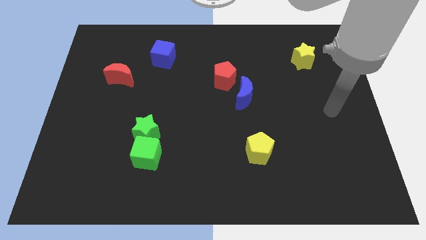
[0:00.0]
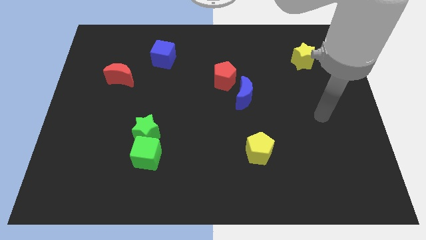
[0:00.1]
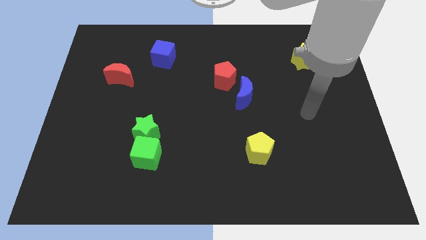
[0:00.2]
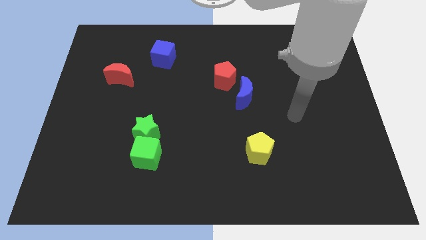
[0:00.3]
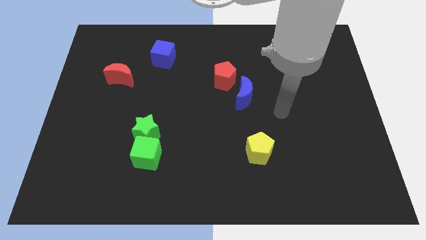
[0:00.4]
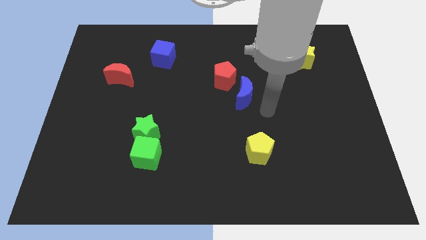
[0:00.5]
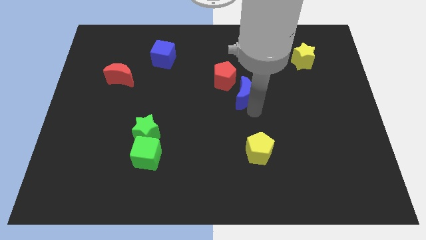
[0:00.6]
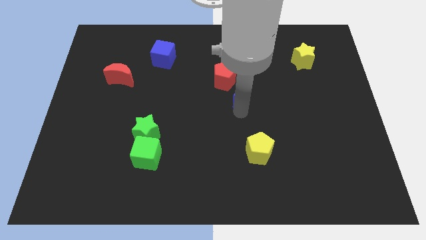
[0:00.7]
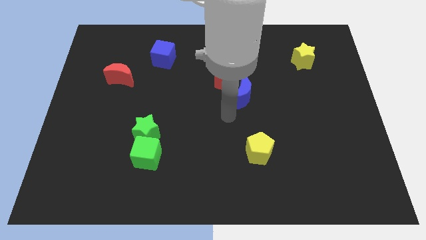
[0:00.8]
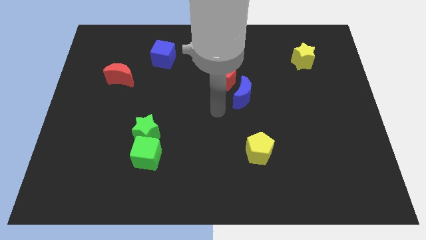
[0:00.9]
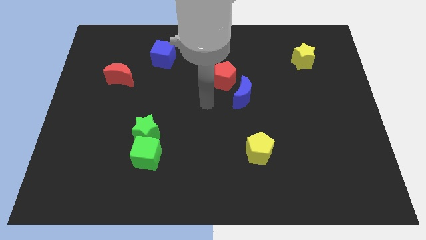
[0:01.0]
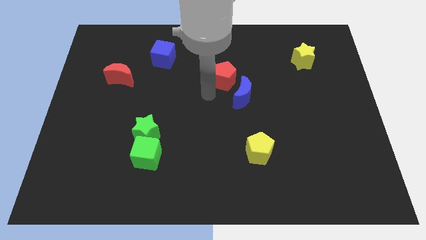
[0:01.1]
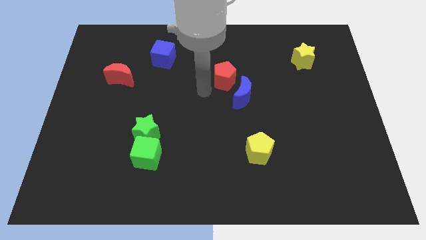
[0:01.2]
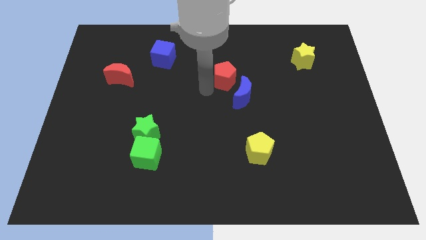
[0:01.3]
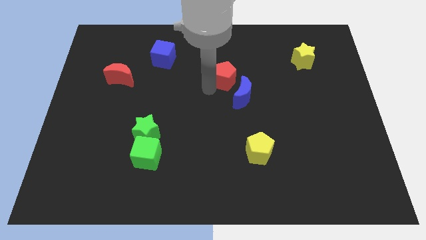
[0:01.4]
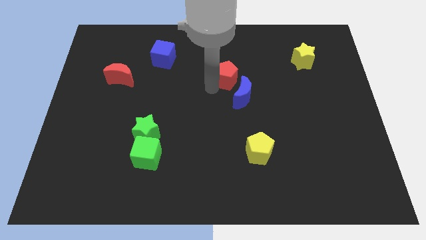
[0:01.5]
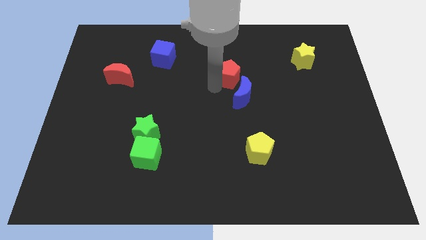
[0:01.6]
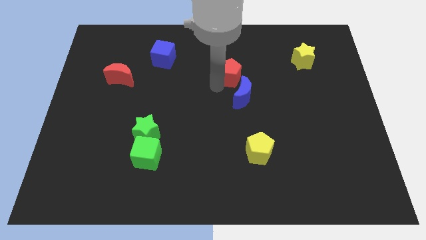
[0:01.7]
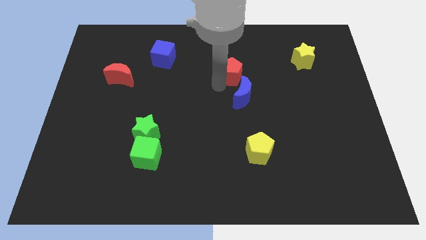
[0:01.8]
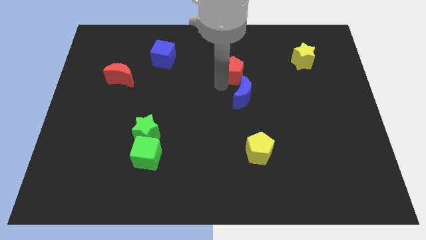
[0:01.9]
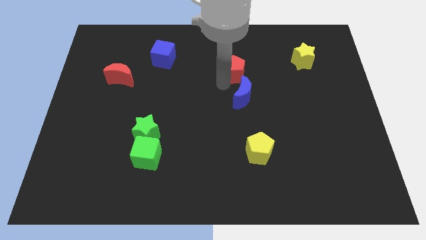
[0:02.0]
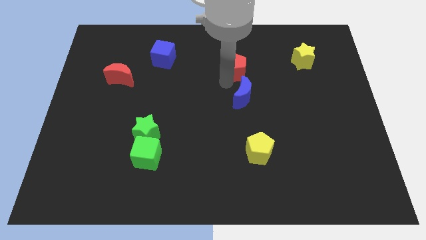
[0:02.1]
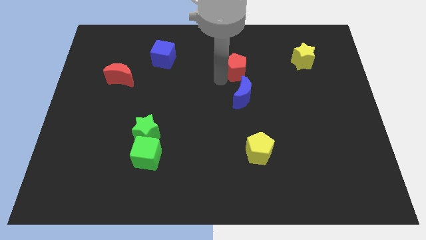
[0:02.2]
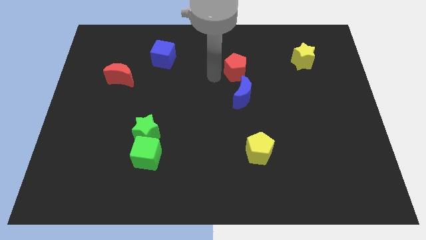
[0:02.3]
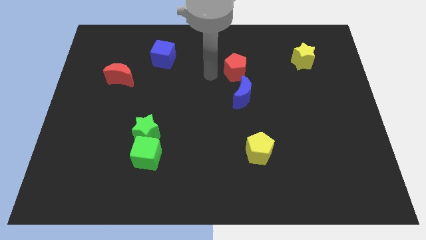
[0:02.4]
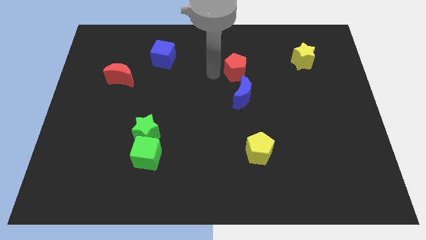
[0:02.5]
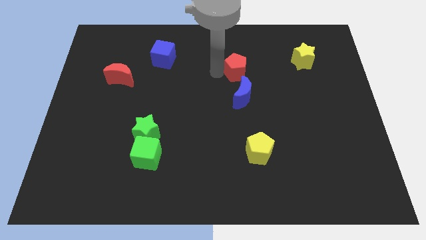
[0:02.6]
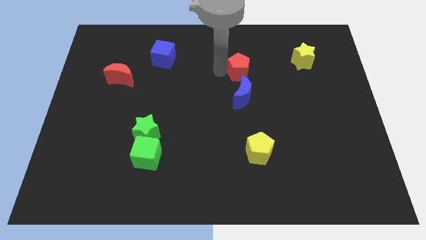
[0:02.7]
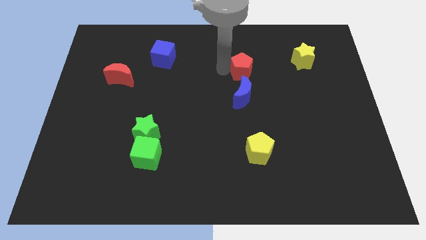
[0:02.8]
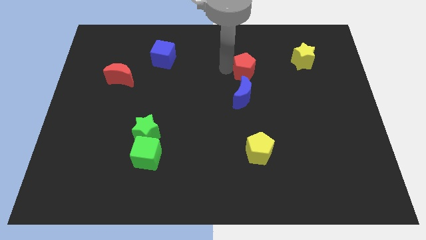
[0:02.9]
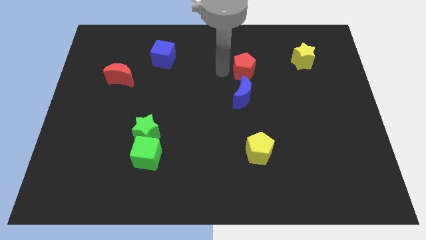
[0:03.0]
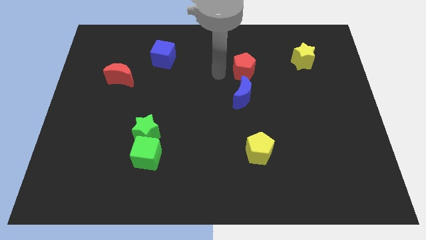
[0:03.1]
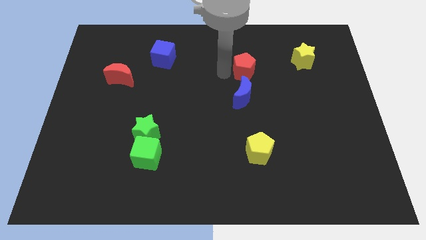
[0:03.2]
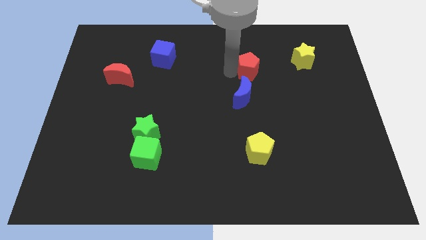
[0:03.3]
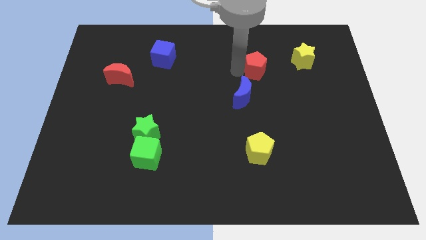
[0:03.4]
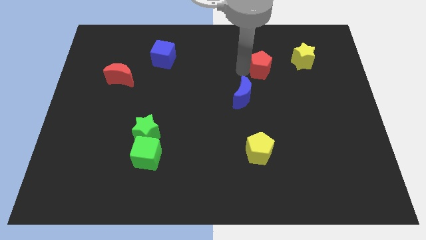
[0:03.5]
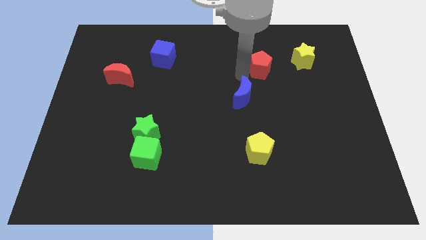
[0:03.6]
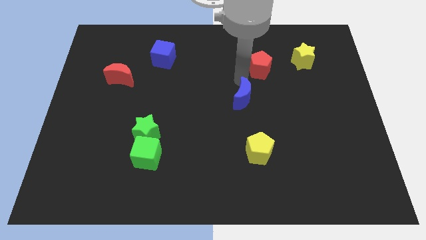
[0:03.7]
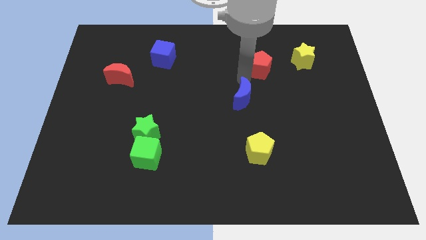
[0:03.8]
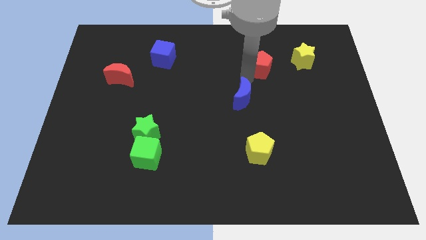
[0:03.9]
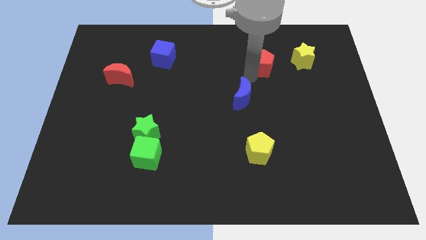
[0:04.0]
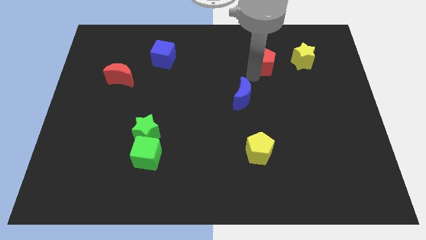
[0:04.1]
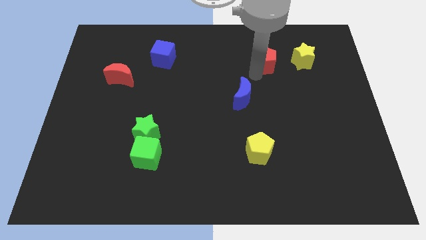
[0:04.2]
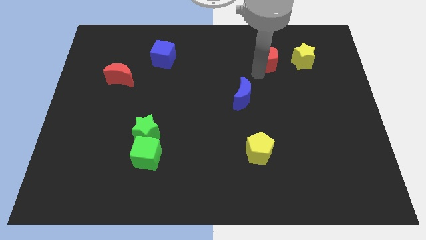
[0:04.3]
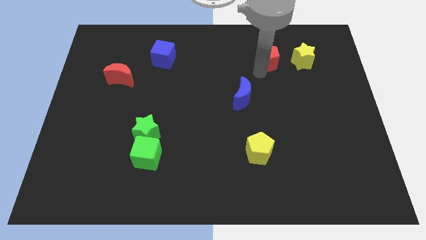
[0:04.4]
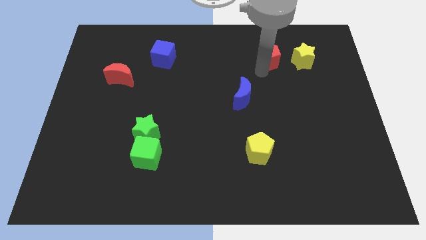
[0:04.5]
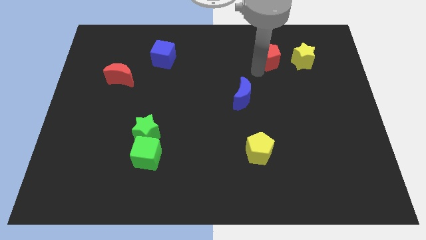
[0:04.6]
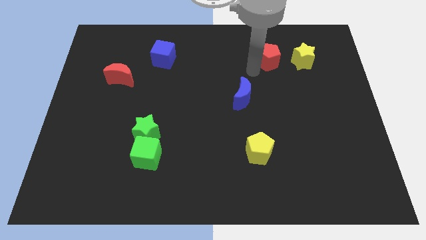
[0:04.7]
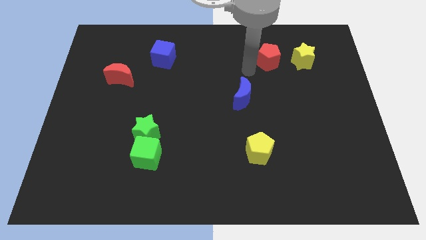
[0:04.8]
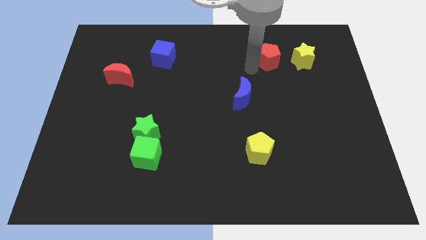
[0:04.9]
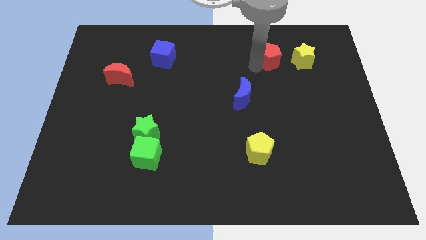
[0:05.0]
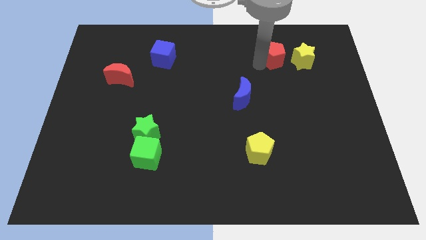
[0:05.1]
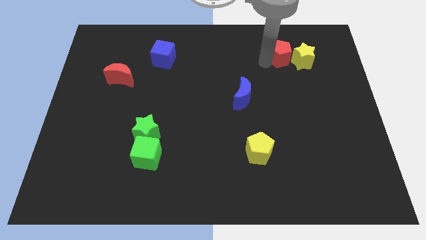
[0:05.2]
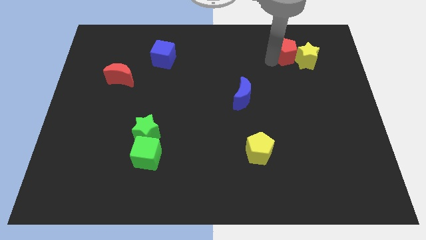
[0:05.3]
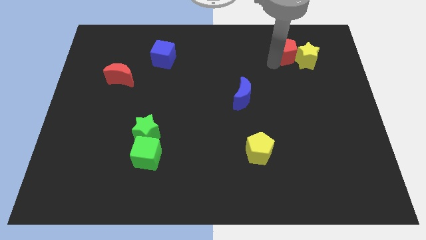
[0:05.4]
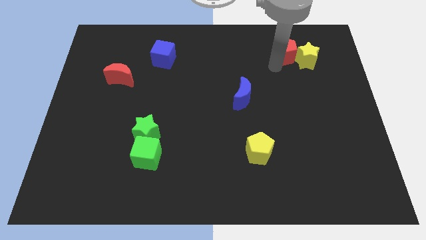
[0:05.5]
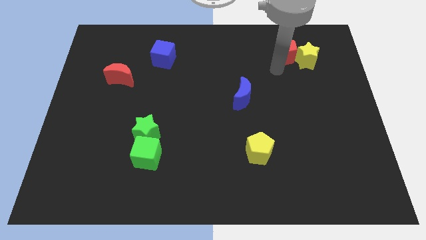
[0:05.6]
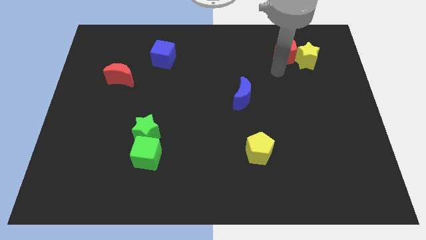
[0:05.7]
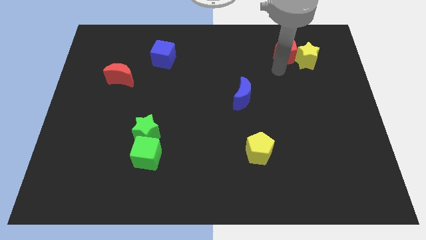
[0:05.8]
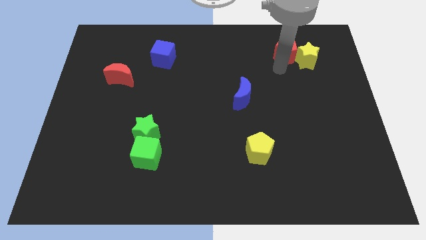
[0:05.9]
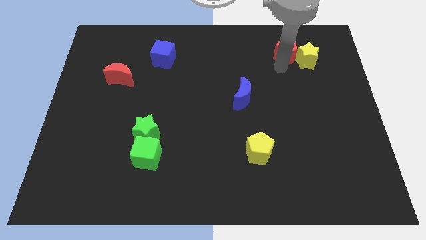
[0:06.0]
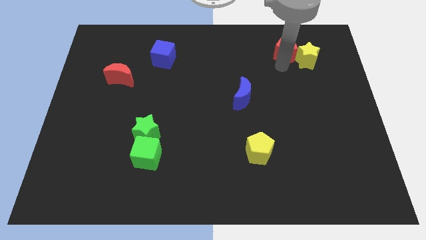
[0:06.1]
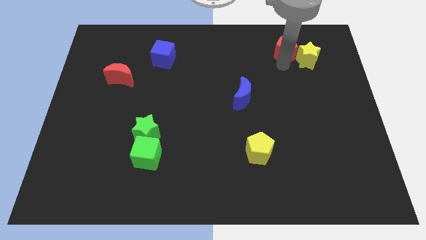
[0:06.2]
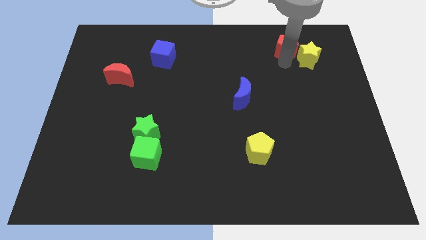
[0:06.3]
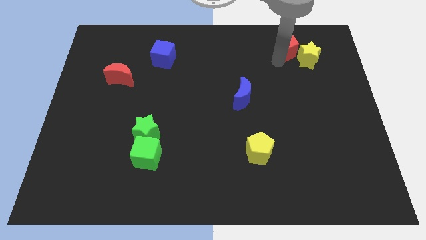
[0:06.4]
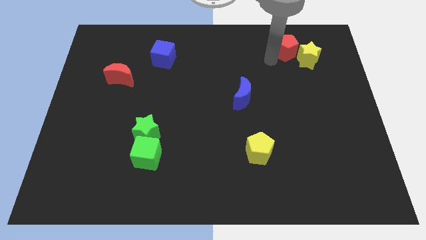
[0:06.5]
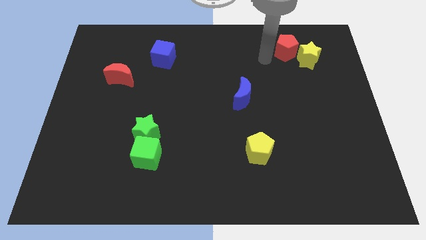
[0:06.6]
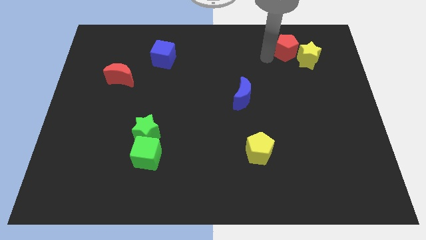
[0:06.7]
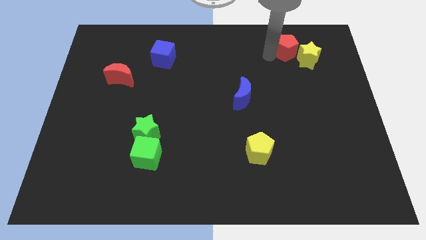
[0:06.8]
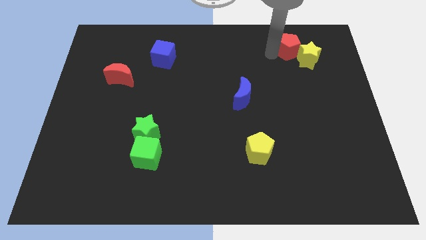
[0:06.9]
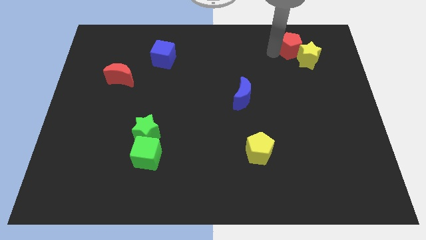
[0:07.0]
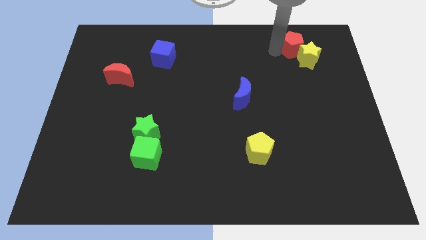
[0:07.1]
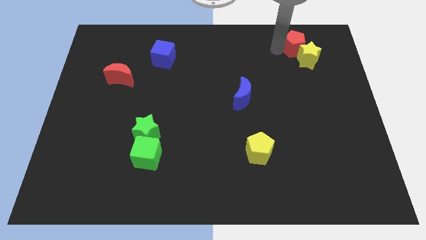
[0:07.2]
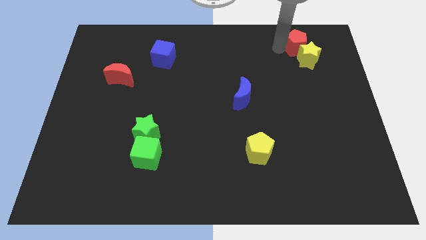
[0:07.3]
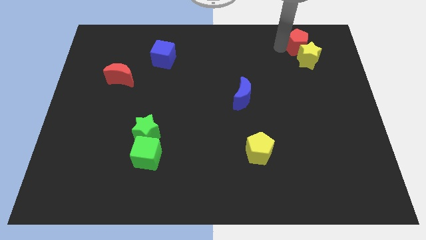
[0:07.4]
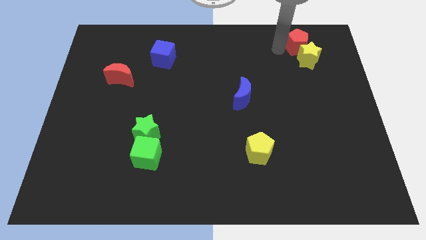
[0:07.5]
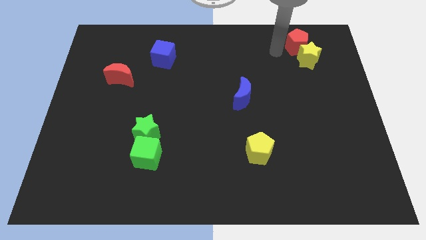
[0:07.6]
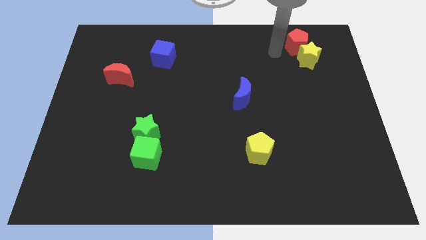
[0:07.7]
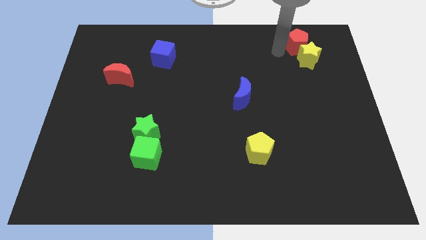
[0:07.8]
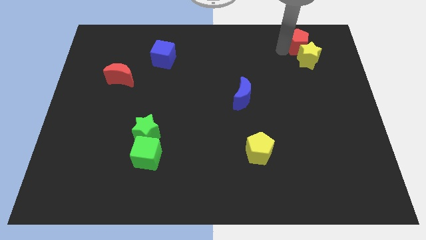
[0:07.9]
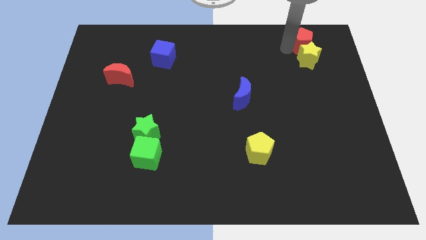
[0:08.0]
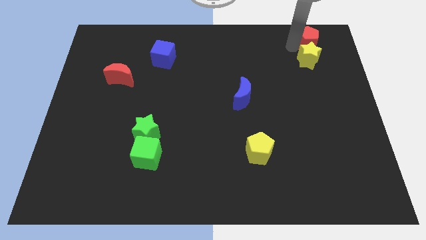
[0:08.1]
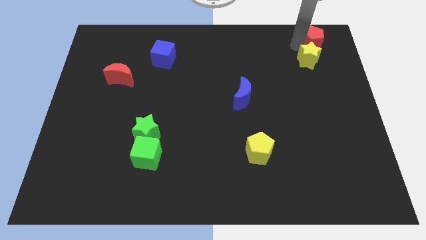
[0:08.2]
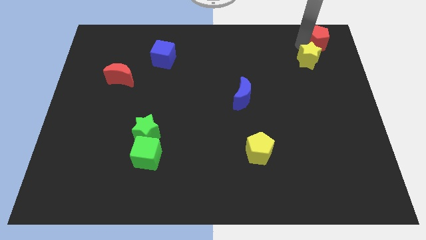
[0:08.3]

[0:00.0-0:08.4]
put the red pentagon to the top right corner
